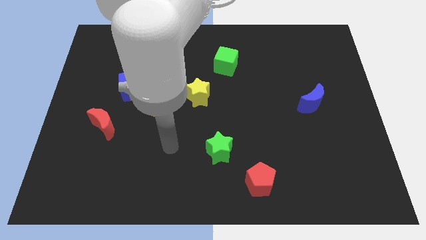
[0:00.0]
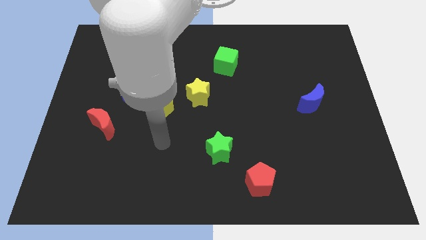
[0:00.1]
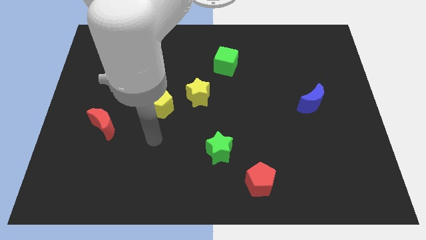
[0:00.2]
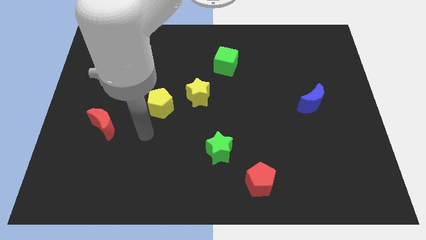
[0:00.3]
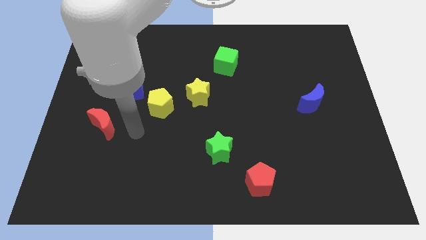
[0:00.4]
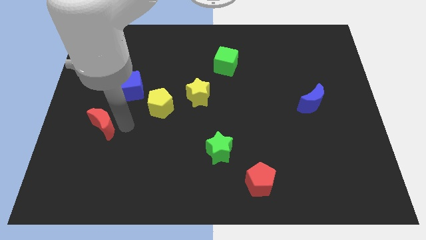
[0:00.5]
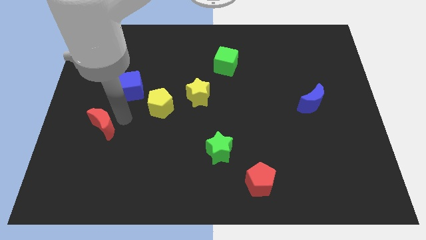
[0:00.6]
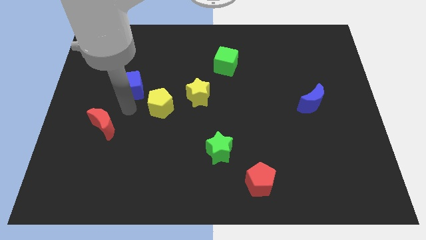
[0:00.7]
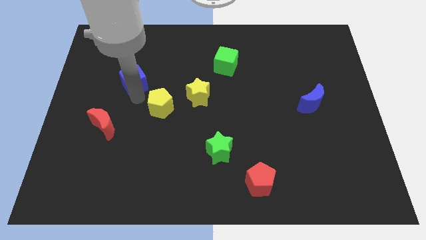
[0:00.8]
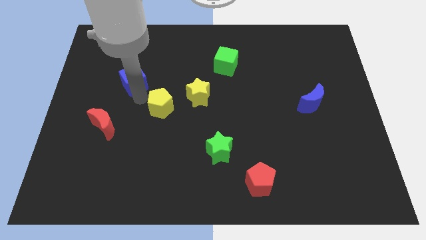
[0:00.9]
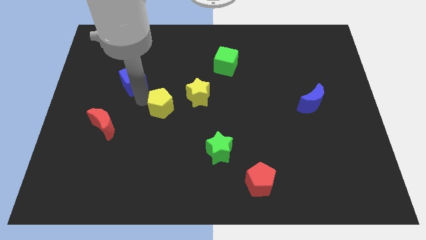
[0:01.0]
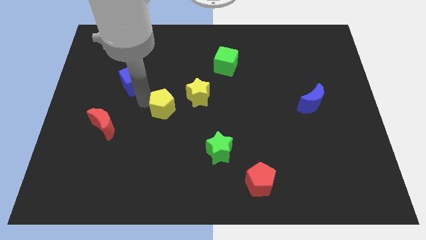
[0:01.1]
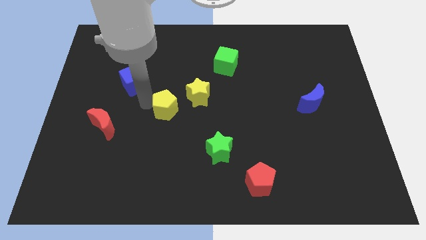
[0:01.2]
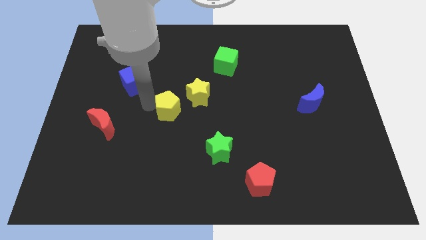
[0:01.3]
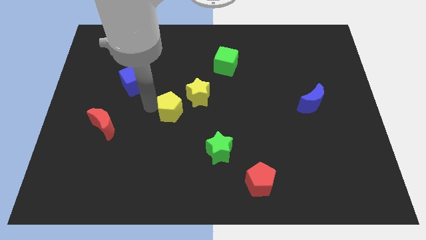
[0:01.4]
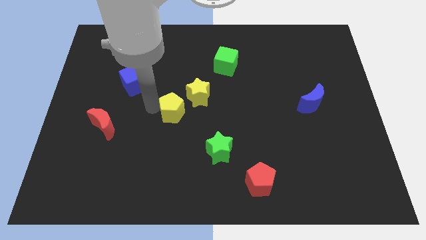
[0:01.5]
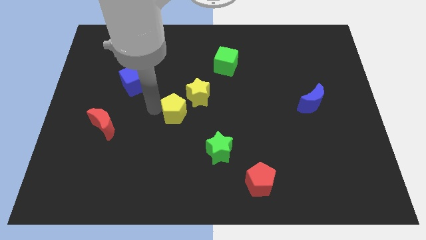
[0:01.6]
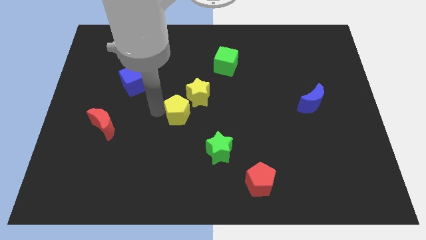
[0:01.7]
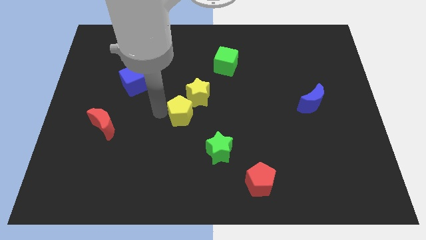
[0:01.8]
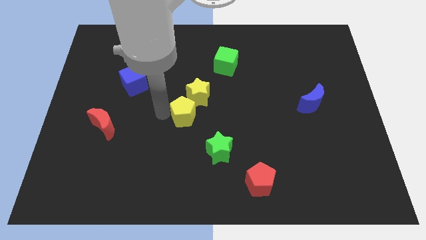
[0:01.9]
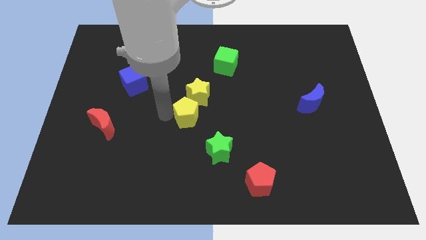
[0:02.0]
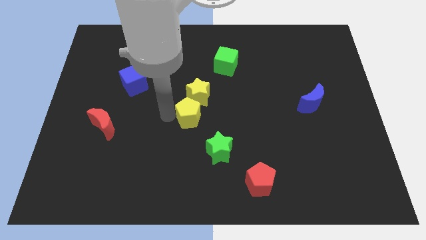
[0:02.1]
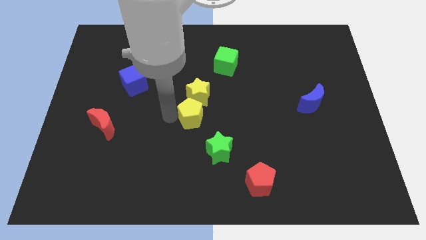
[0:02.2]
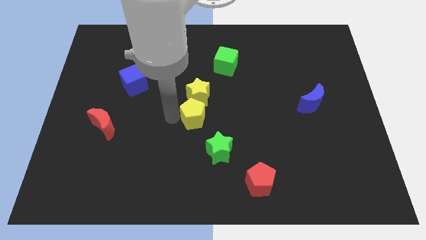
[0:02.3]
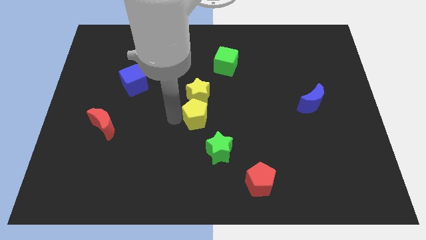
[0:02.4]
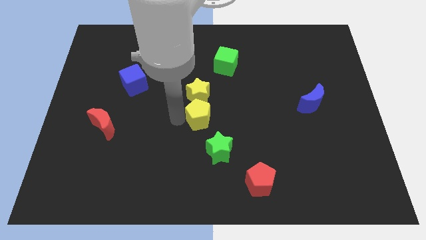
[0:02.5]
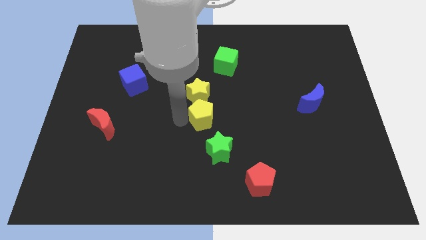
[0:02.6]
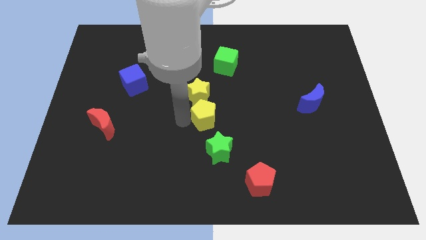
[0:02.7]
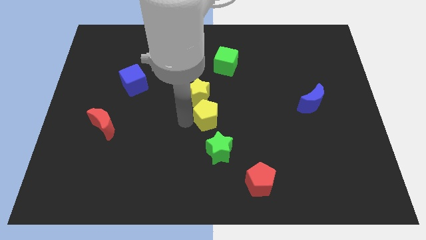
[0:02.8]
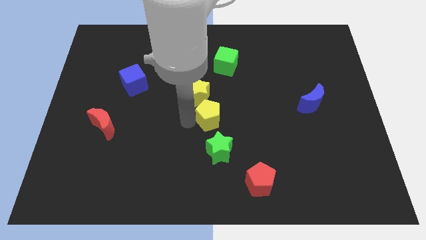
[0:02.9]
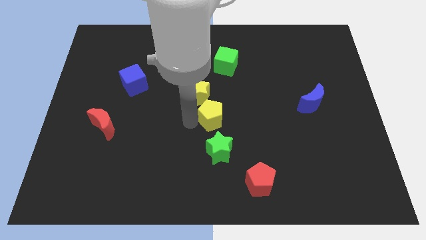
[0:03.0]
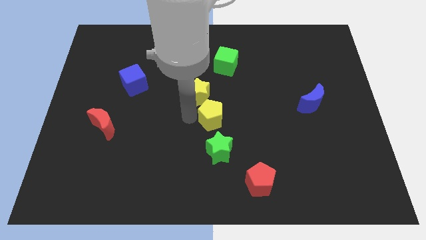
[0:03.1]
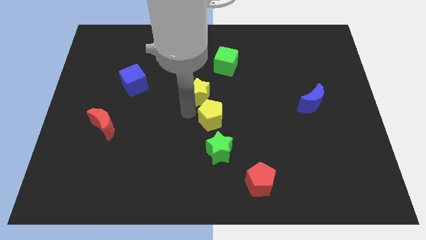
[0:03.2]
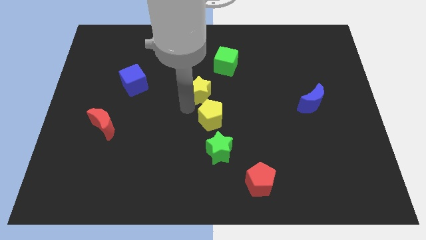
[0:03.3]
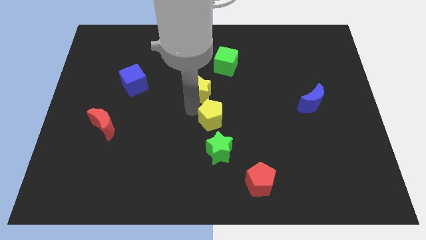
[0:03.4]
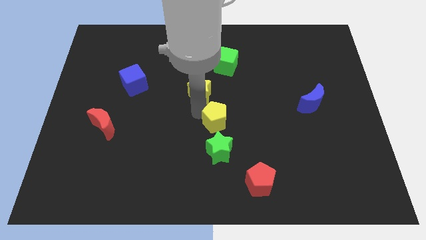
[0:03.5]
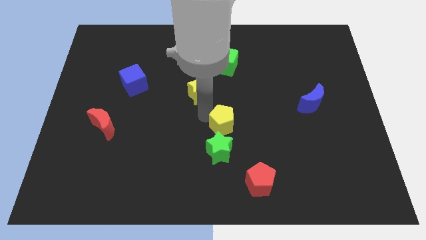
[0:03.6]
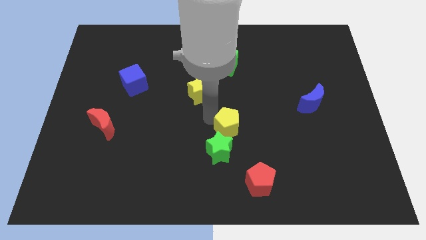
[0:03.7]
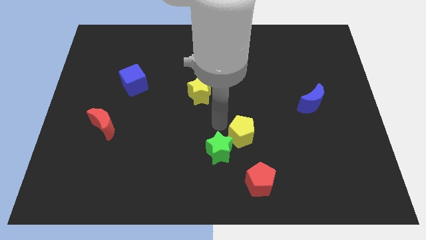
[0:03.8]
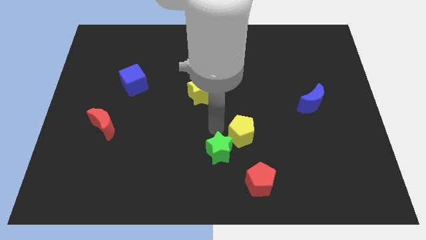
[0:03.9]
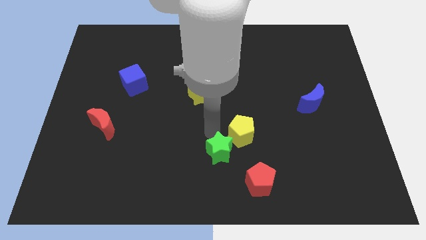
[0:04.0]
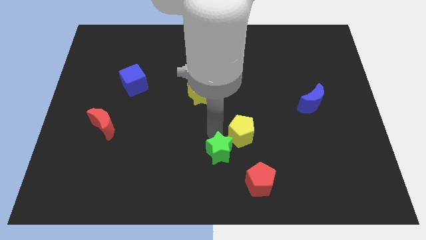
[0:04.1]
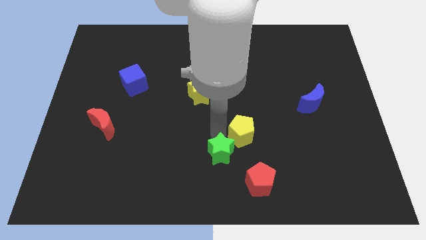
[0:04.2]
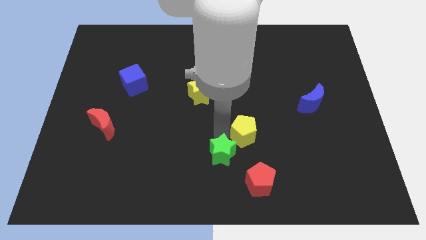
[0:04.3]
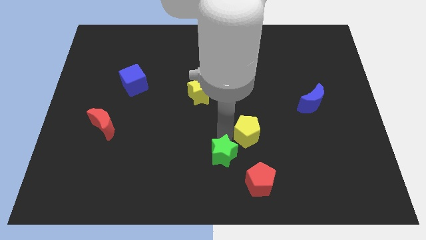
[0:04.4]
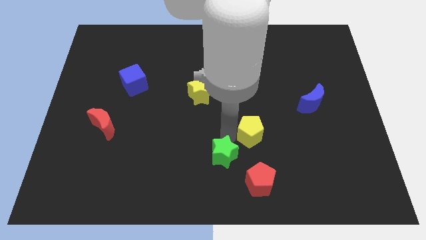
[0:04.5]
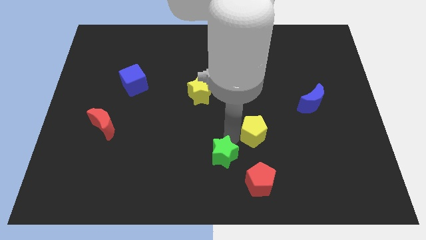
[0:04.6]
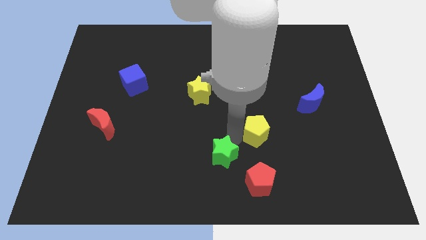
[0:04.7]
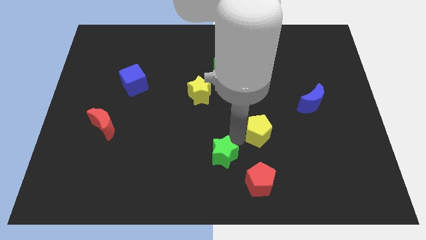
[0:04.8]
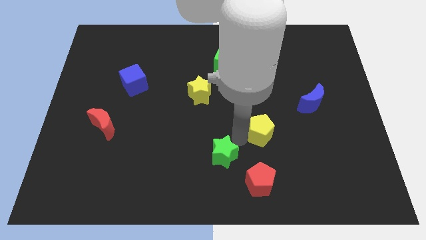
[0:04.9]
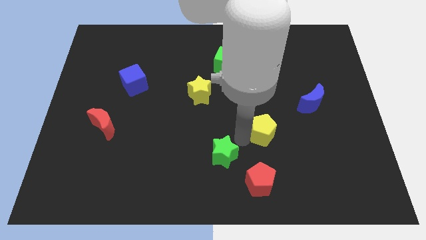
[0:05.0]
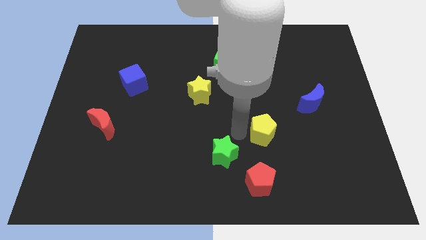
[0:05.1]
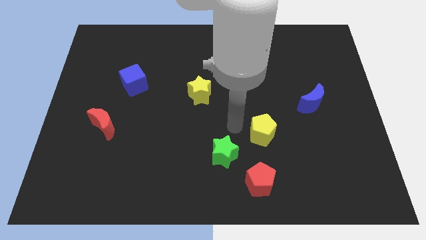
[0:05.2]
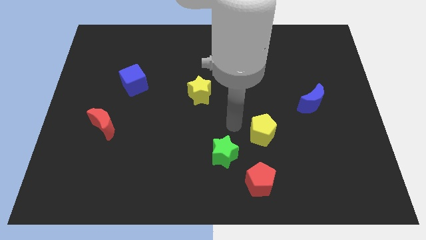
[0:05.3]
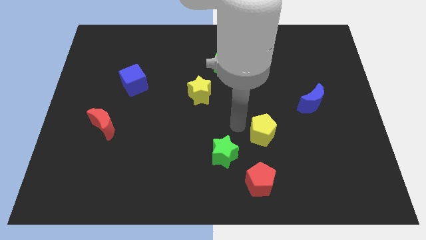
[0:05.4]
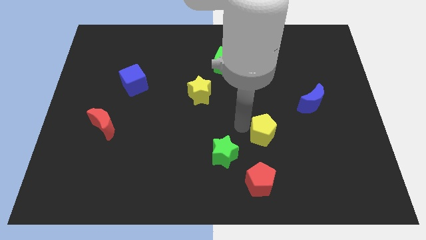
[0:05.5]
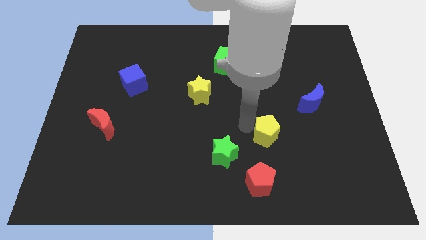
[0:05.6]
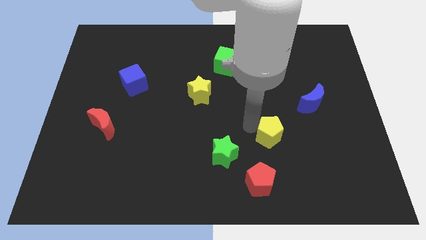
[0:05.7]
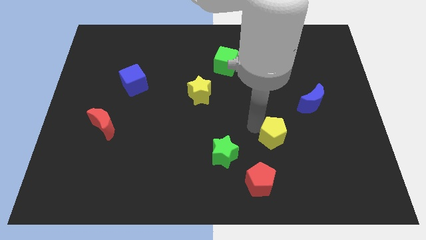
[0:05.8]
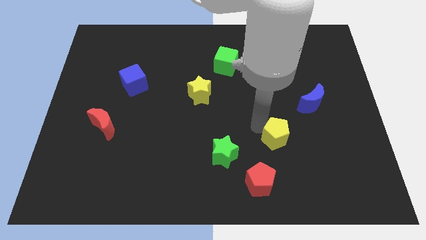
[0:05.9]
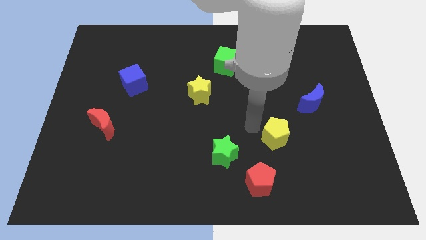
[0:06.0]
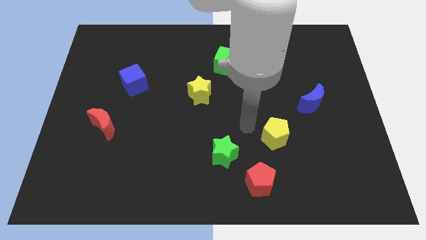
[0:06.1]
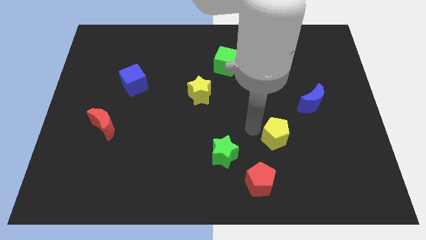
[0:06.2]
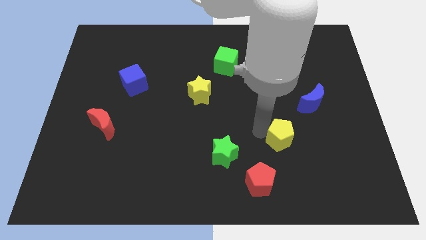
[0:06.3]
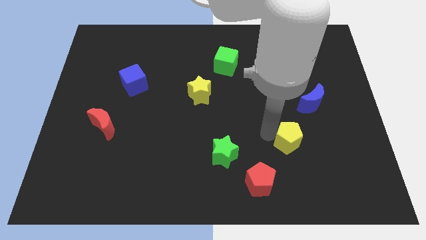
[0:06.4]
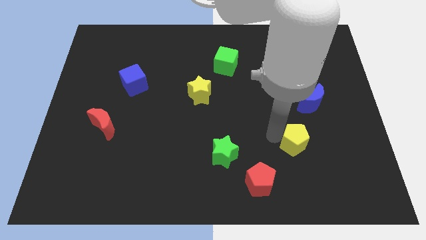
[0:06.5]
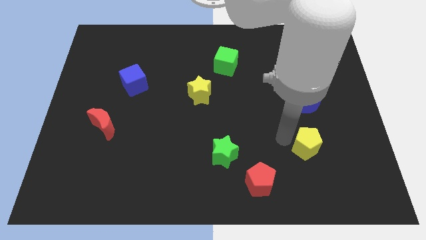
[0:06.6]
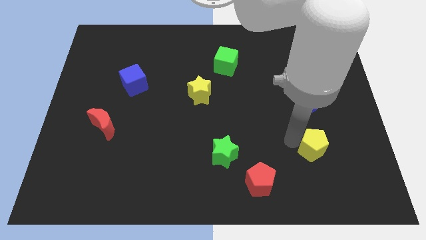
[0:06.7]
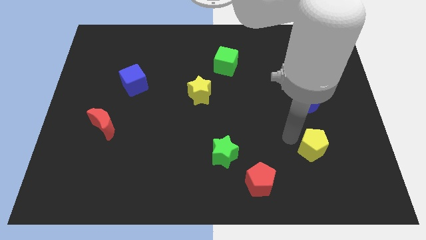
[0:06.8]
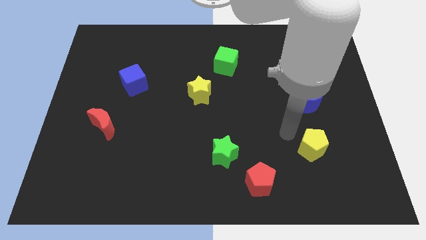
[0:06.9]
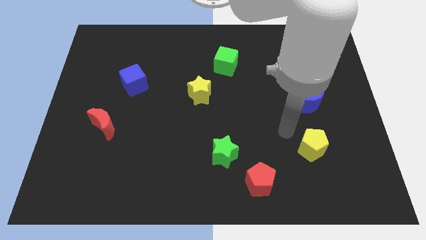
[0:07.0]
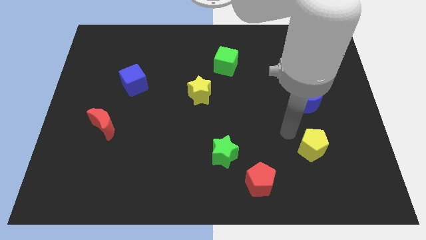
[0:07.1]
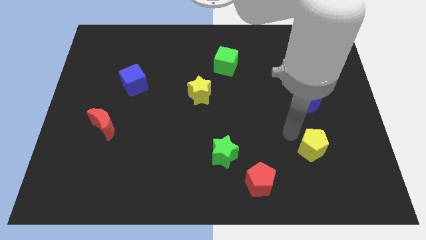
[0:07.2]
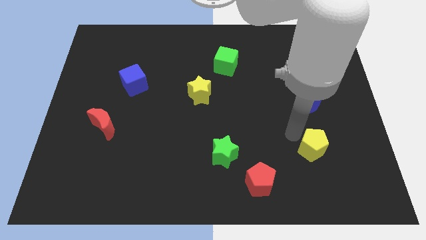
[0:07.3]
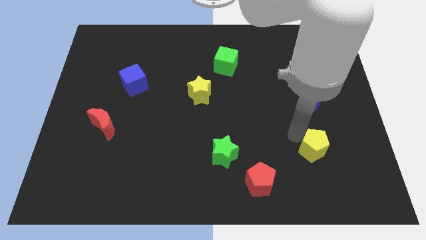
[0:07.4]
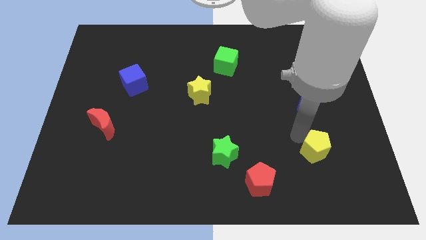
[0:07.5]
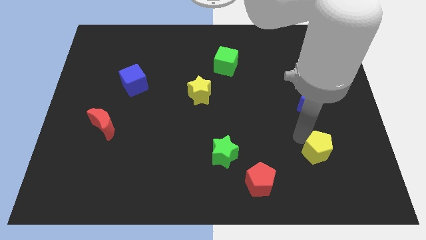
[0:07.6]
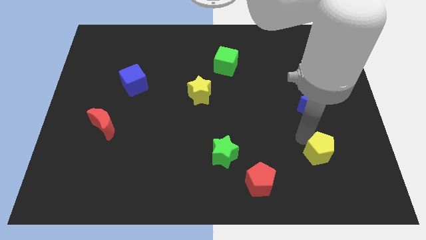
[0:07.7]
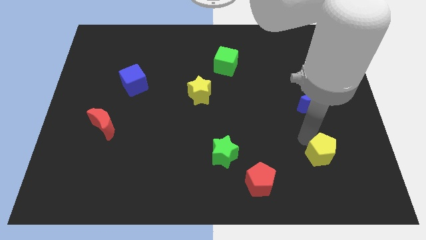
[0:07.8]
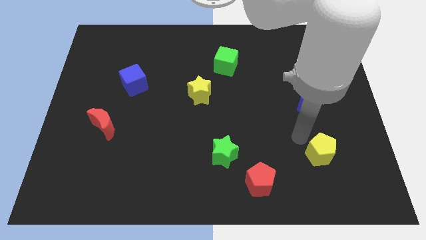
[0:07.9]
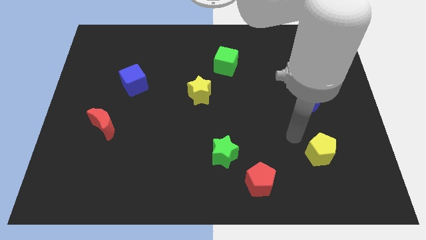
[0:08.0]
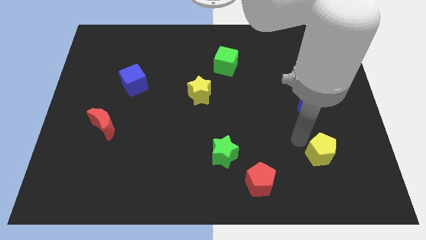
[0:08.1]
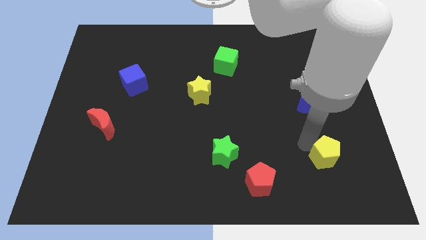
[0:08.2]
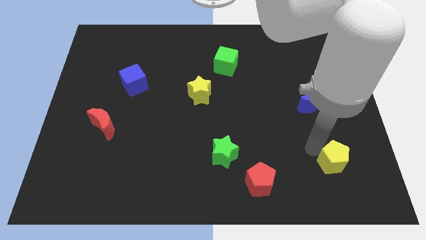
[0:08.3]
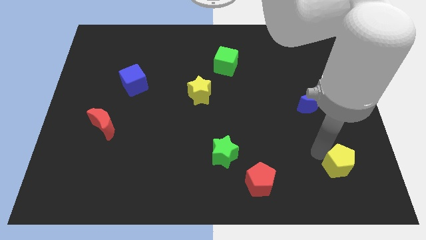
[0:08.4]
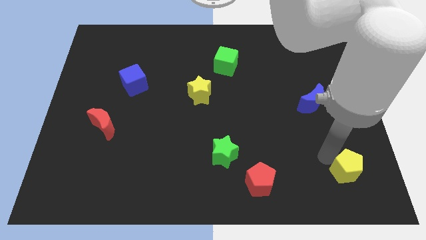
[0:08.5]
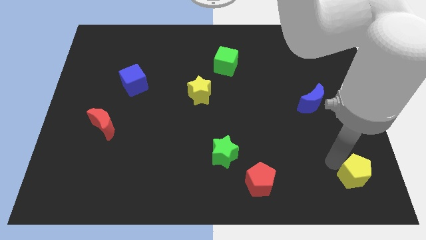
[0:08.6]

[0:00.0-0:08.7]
push the yellow pentagon to the lower right corner
